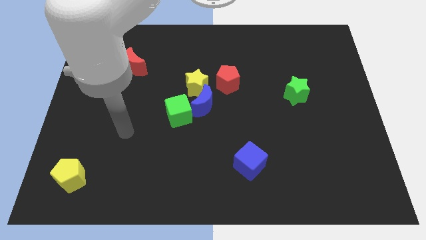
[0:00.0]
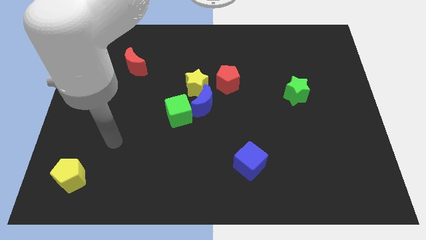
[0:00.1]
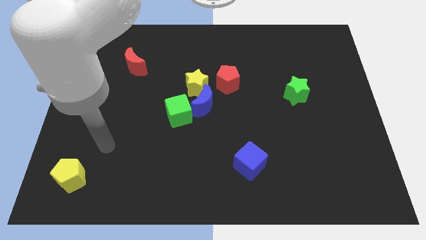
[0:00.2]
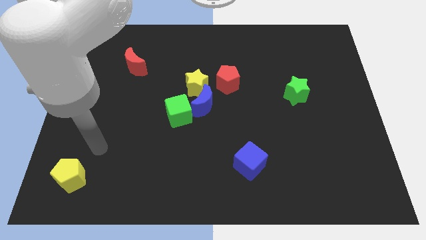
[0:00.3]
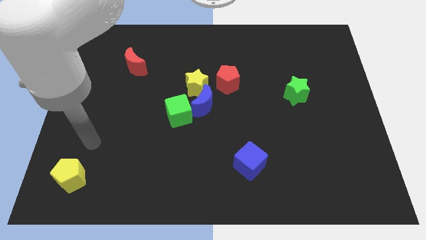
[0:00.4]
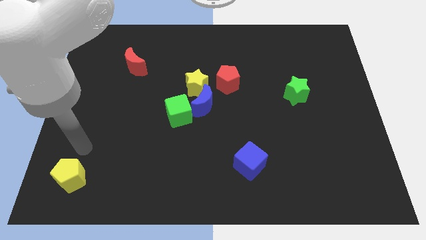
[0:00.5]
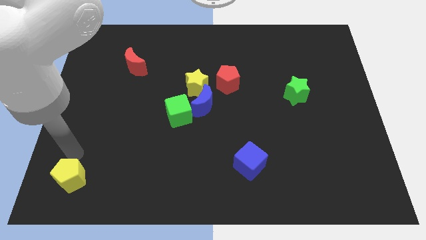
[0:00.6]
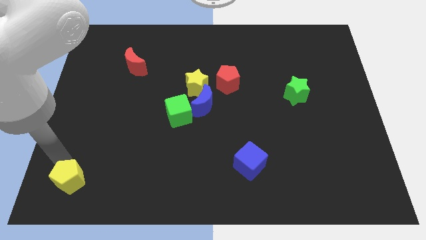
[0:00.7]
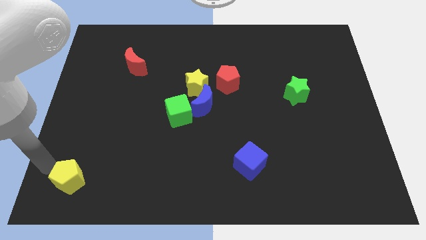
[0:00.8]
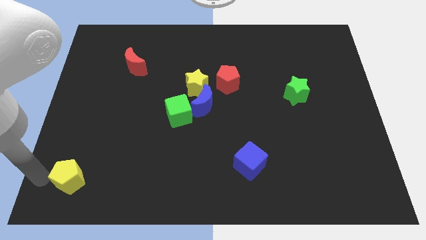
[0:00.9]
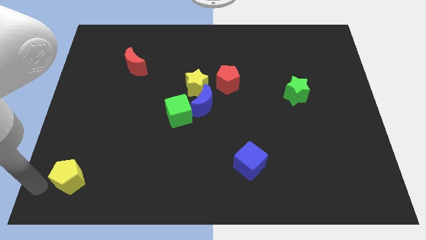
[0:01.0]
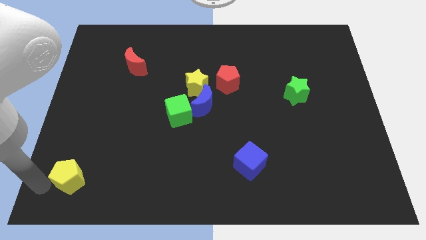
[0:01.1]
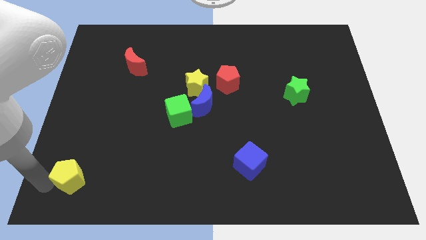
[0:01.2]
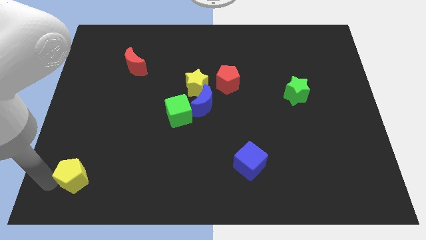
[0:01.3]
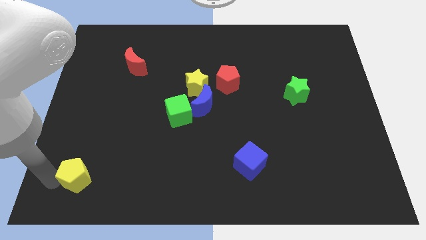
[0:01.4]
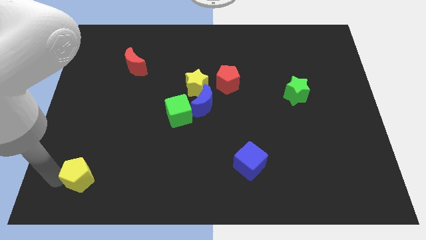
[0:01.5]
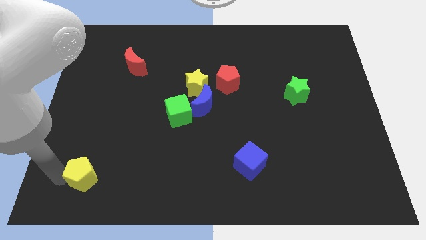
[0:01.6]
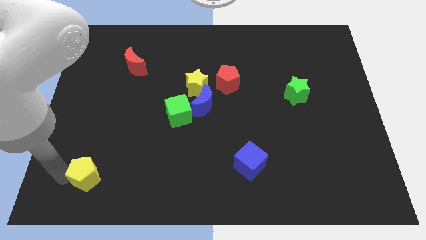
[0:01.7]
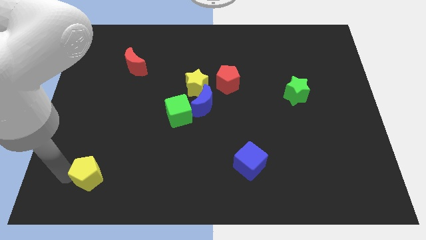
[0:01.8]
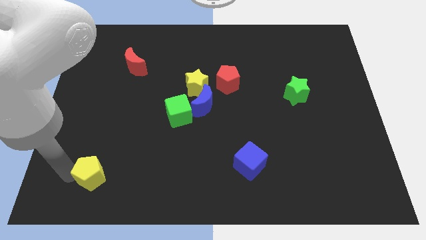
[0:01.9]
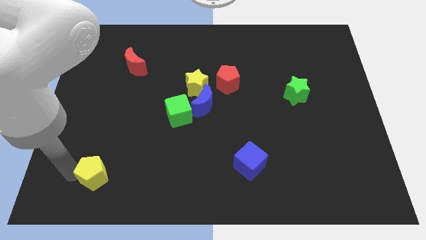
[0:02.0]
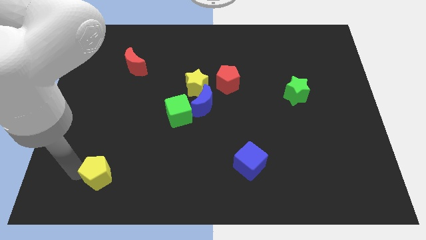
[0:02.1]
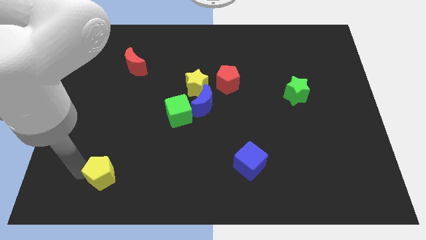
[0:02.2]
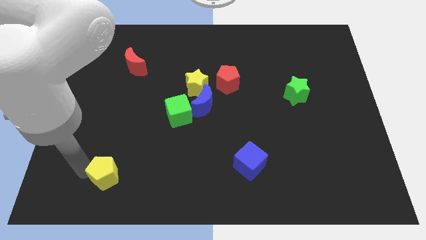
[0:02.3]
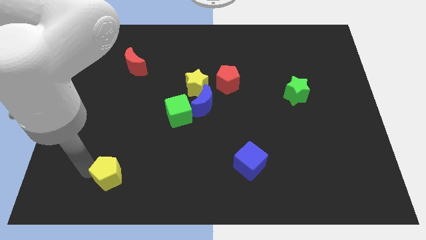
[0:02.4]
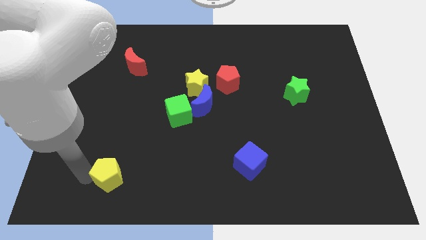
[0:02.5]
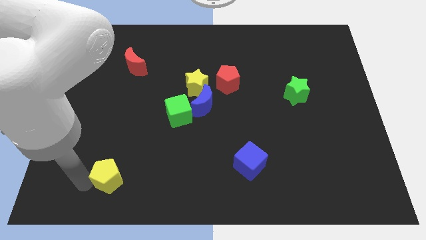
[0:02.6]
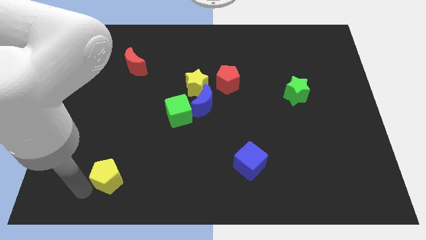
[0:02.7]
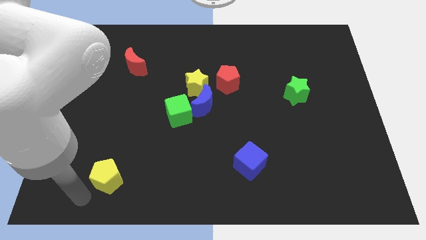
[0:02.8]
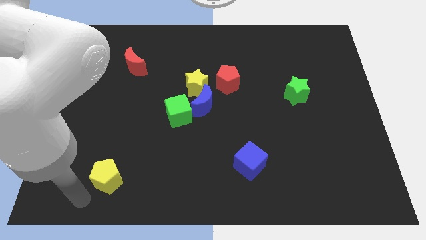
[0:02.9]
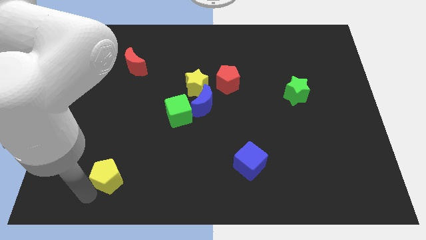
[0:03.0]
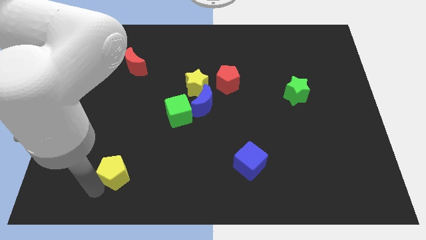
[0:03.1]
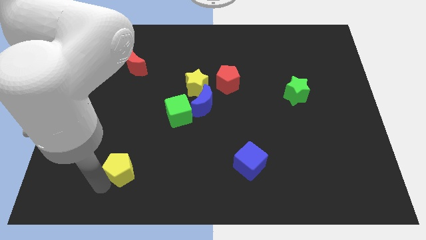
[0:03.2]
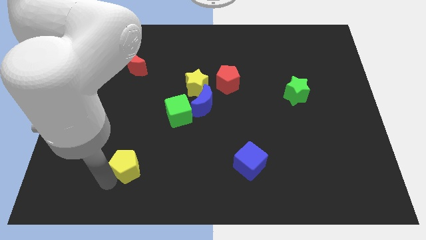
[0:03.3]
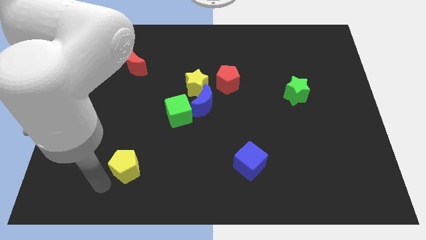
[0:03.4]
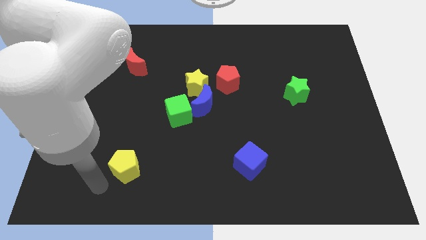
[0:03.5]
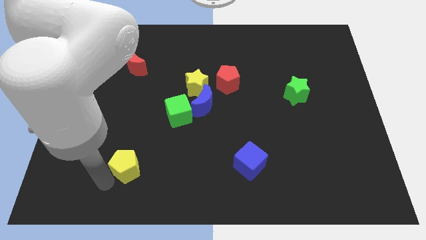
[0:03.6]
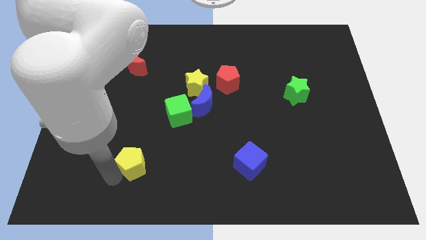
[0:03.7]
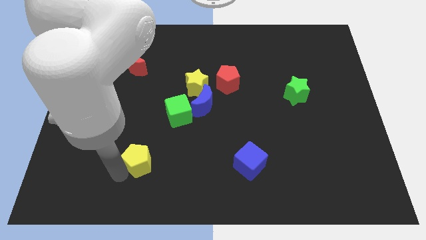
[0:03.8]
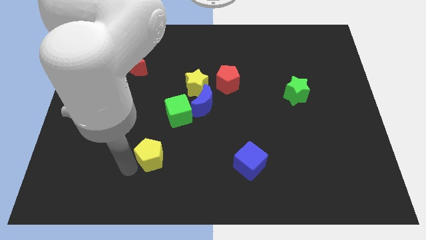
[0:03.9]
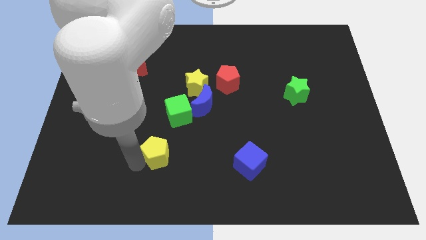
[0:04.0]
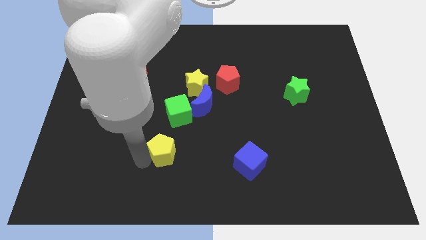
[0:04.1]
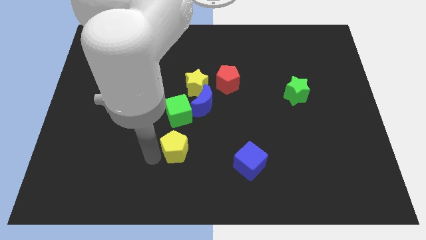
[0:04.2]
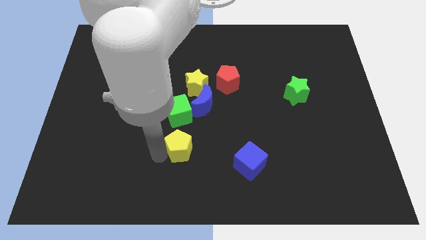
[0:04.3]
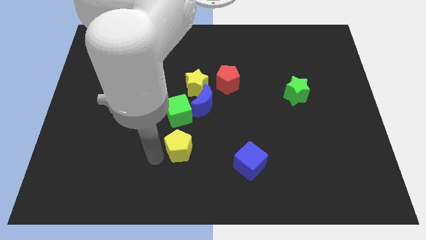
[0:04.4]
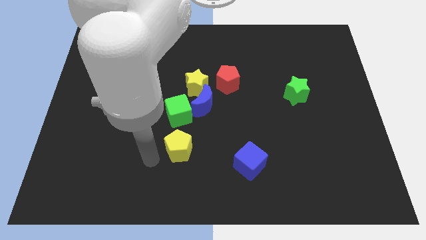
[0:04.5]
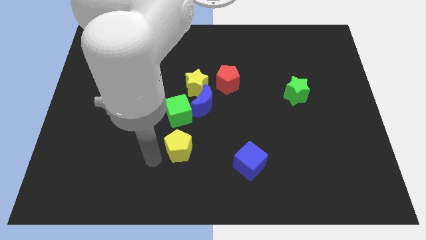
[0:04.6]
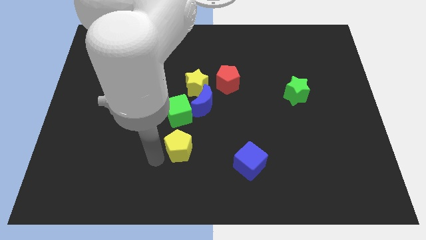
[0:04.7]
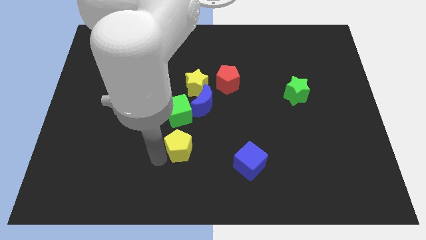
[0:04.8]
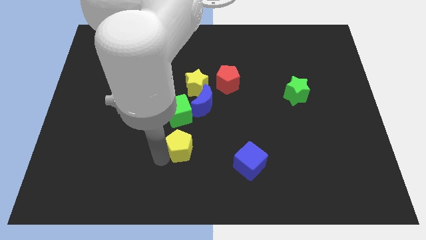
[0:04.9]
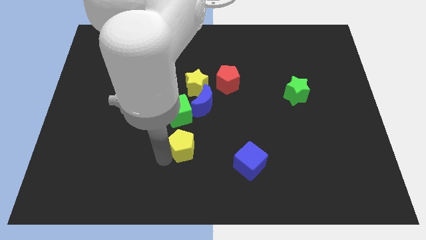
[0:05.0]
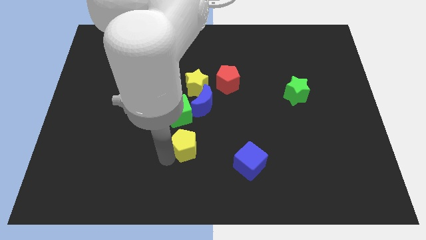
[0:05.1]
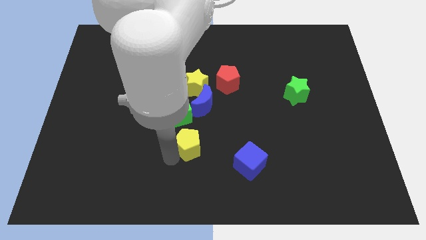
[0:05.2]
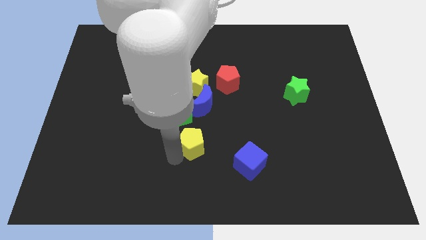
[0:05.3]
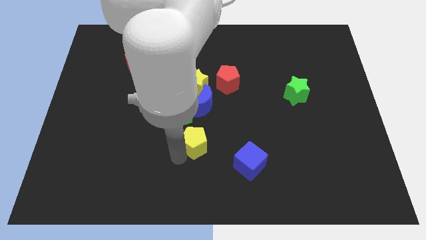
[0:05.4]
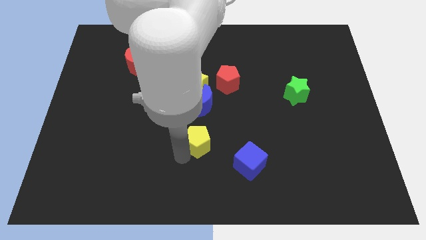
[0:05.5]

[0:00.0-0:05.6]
push the yellow pentagon to the bottom of the yellow star

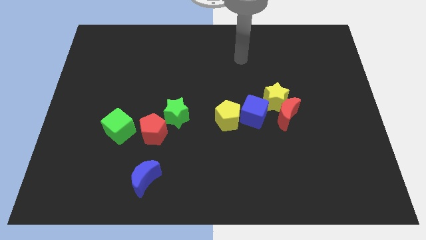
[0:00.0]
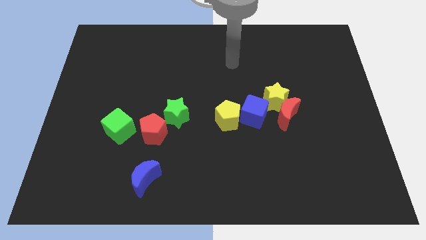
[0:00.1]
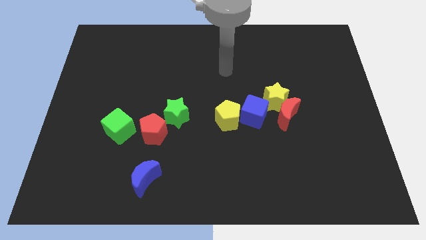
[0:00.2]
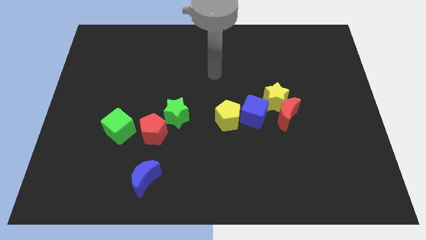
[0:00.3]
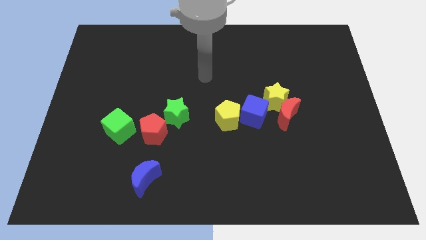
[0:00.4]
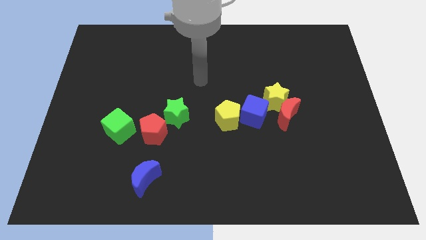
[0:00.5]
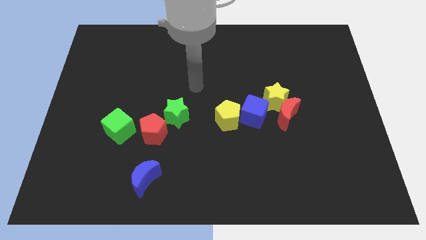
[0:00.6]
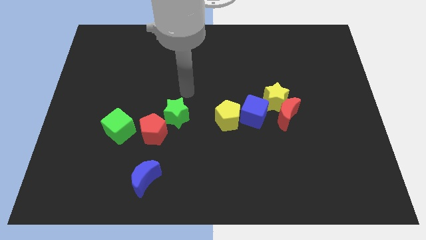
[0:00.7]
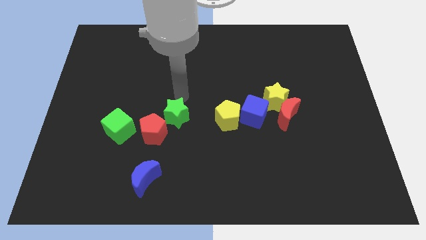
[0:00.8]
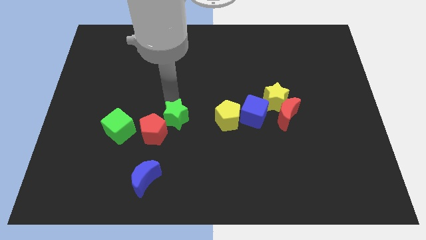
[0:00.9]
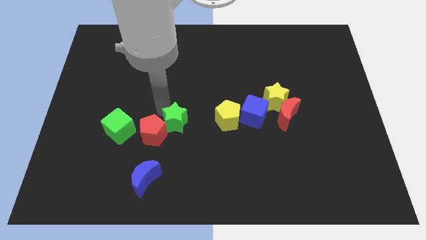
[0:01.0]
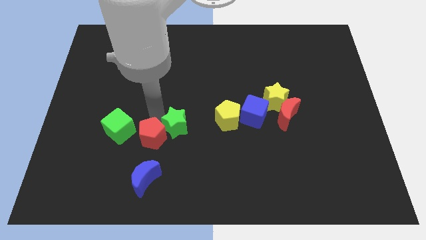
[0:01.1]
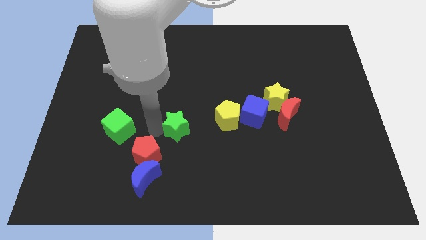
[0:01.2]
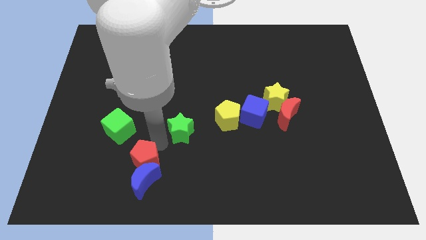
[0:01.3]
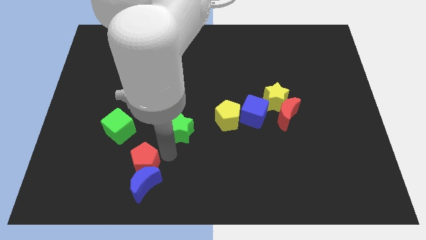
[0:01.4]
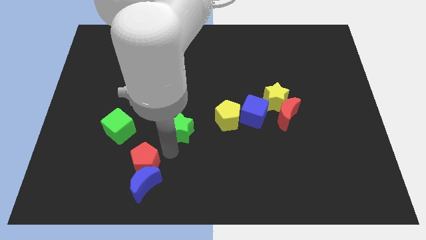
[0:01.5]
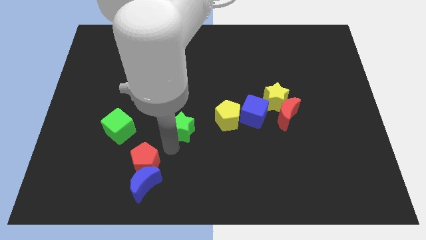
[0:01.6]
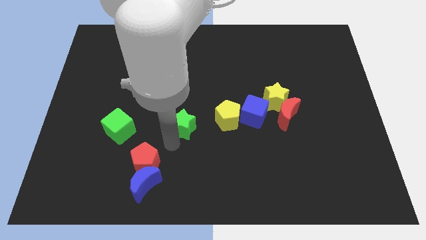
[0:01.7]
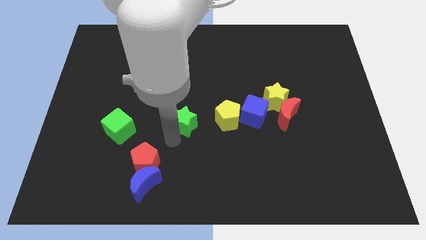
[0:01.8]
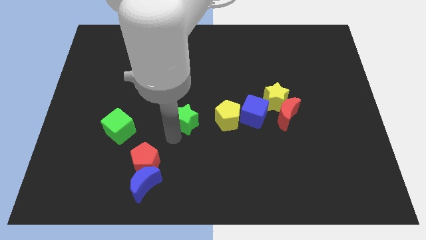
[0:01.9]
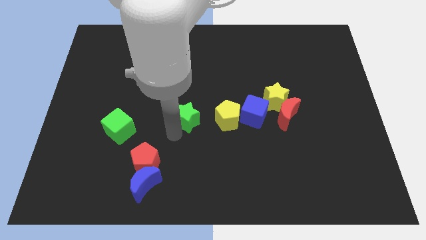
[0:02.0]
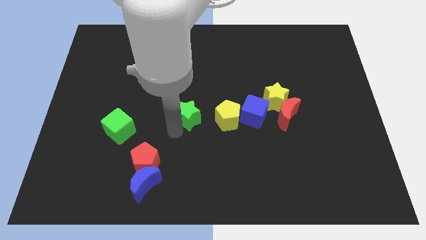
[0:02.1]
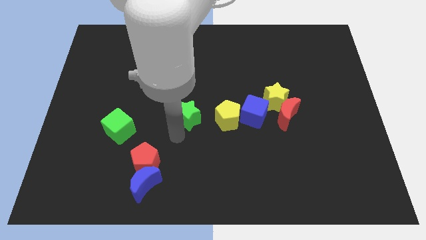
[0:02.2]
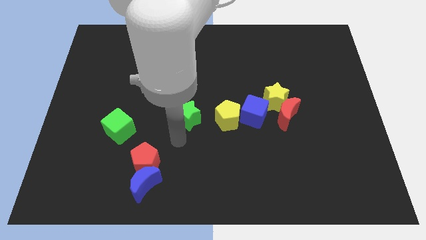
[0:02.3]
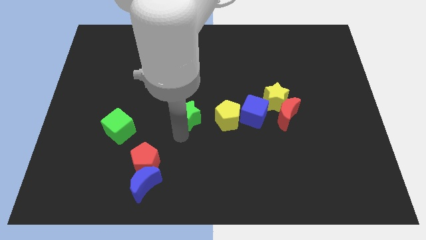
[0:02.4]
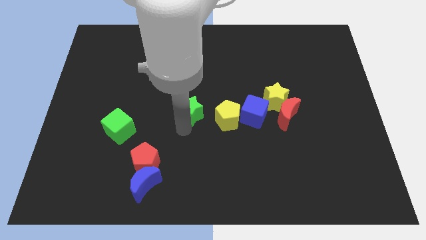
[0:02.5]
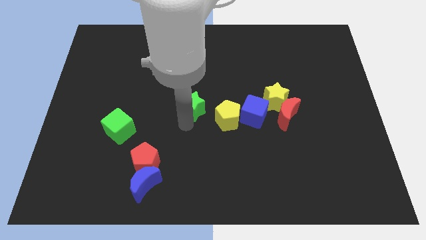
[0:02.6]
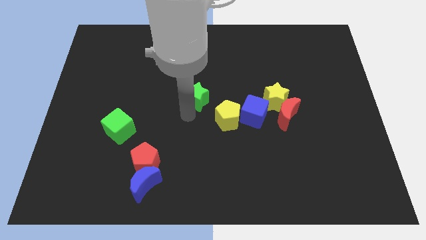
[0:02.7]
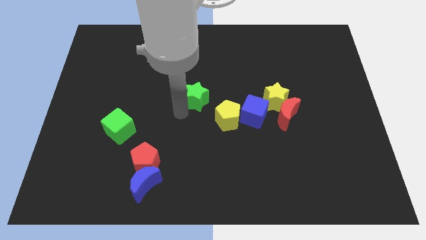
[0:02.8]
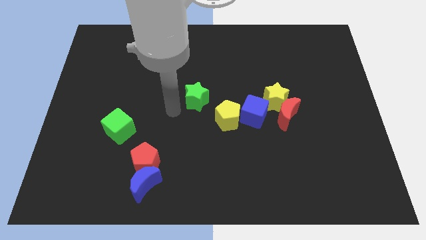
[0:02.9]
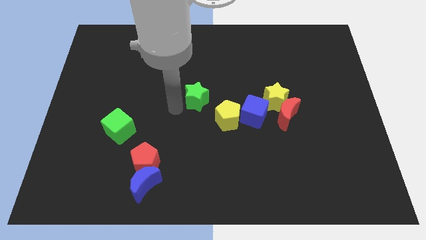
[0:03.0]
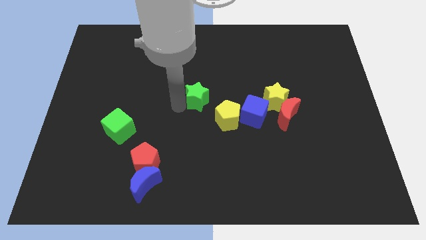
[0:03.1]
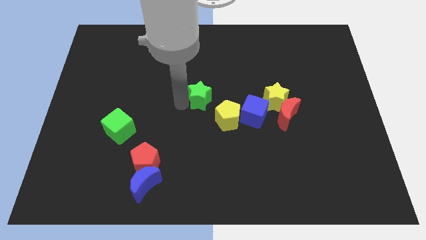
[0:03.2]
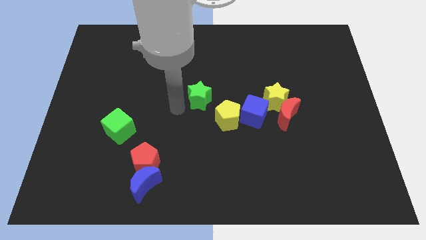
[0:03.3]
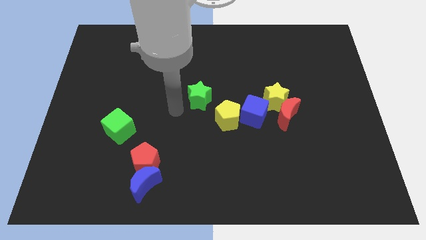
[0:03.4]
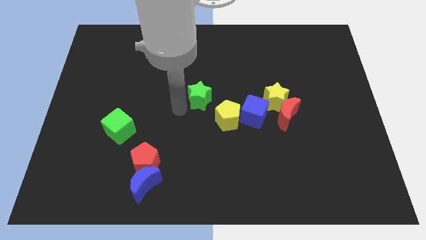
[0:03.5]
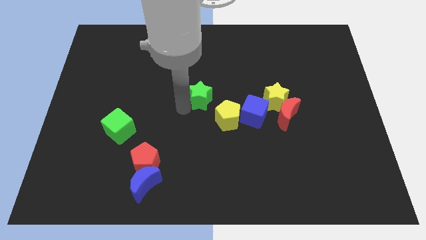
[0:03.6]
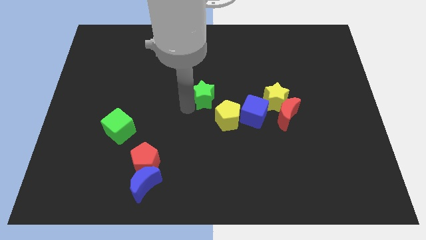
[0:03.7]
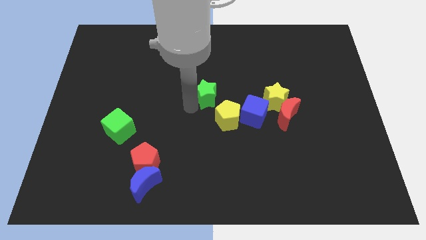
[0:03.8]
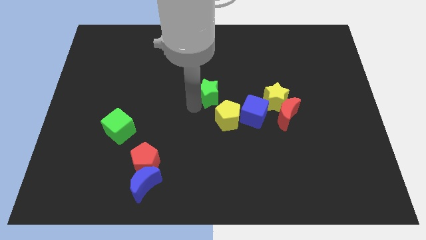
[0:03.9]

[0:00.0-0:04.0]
move the green star to the top side of the yellow pentagon
